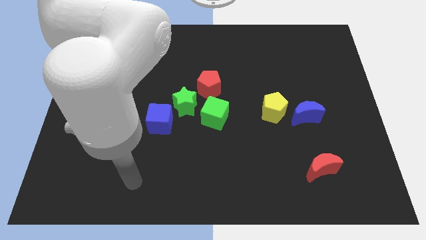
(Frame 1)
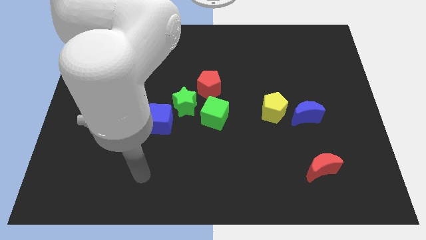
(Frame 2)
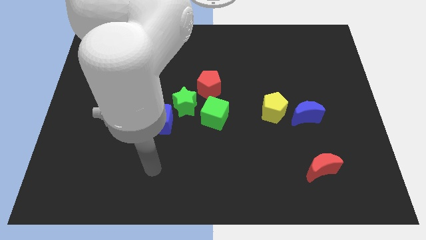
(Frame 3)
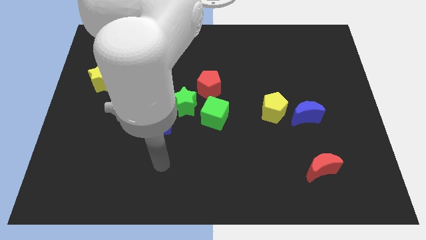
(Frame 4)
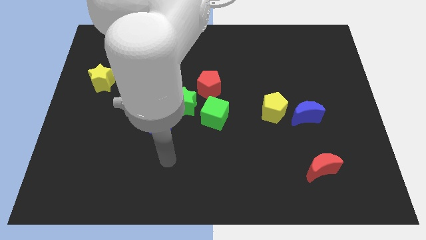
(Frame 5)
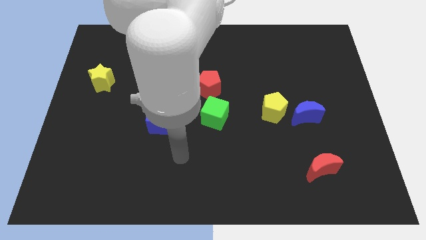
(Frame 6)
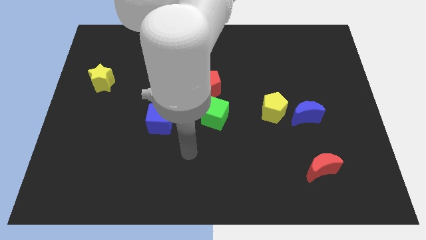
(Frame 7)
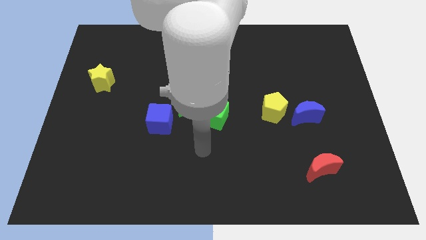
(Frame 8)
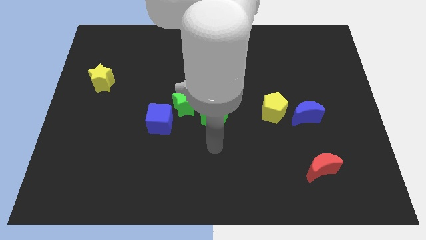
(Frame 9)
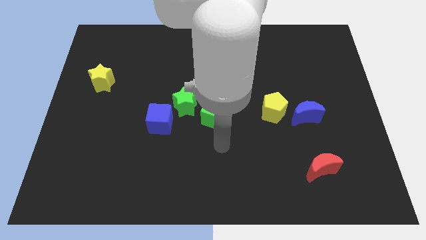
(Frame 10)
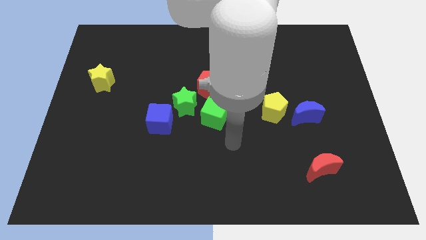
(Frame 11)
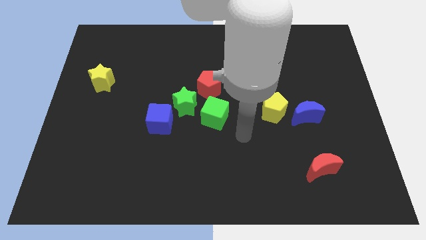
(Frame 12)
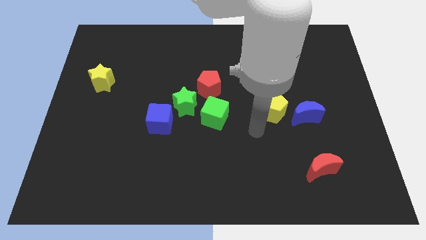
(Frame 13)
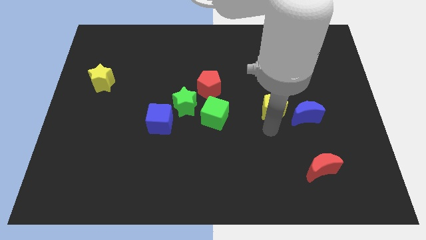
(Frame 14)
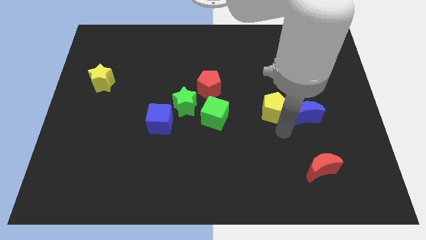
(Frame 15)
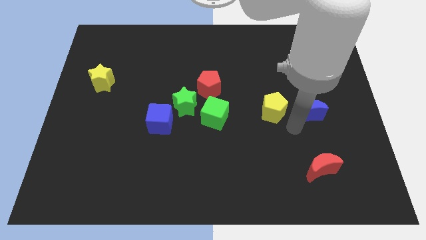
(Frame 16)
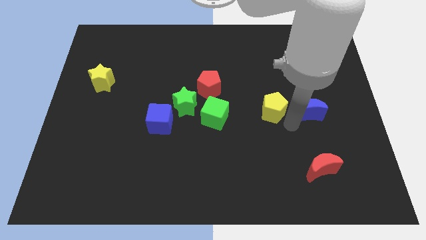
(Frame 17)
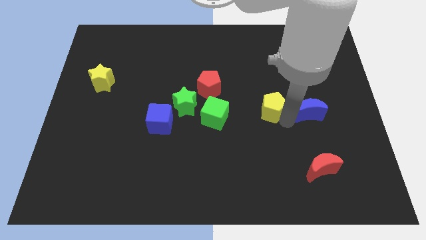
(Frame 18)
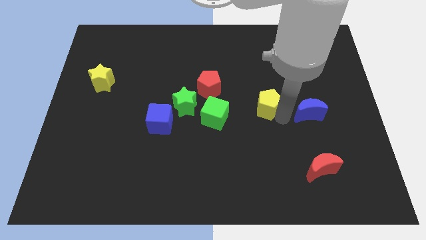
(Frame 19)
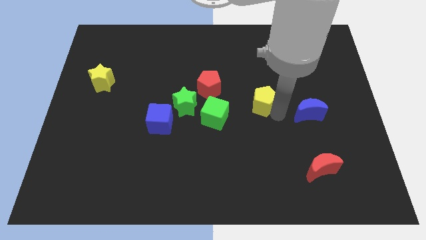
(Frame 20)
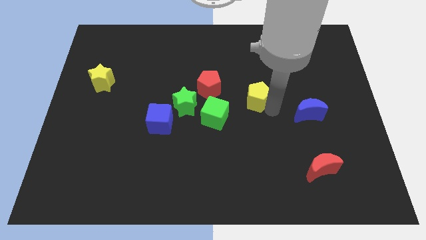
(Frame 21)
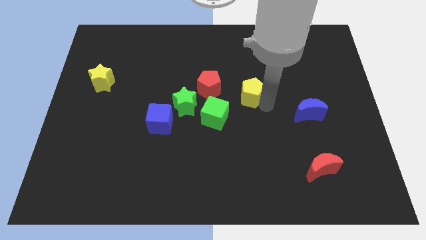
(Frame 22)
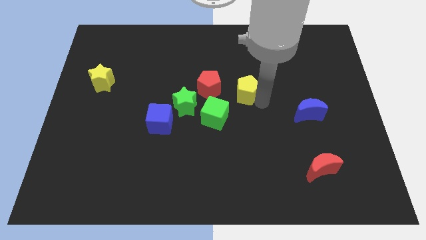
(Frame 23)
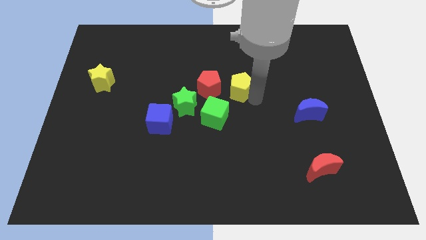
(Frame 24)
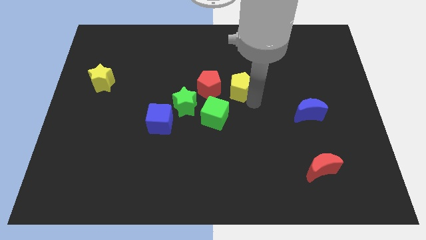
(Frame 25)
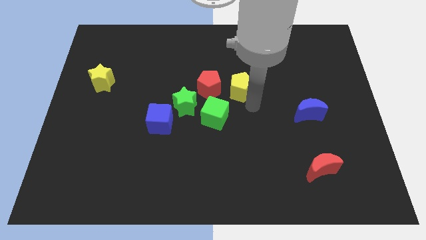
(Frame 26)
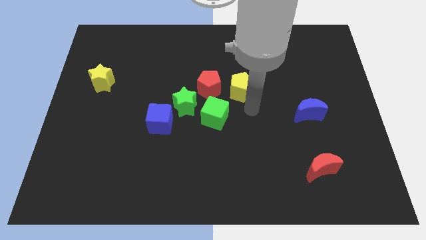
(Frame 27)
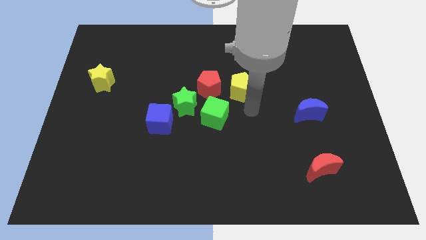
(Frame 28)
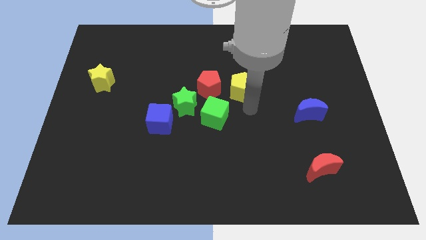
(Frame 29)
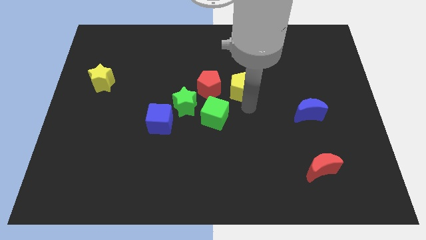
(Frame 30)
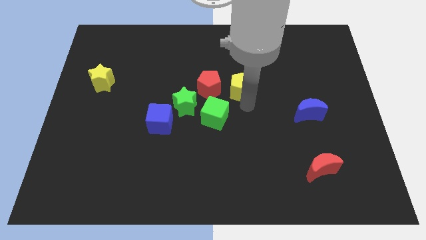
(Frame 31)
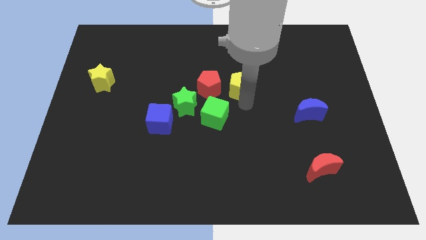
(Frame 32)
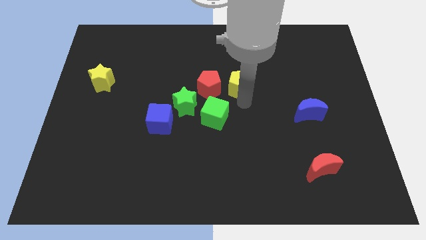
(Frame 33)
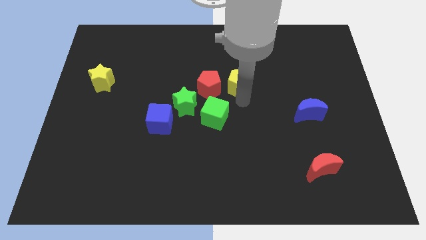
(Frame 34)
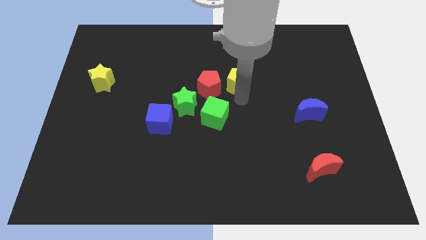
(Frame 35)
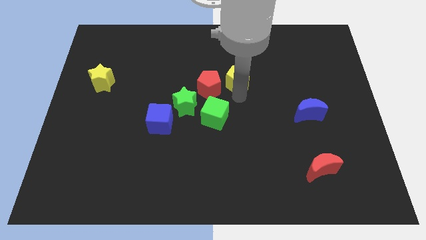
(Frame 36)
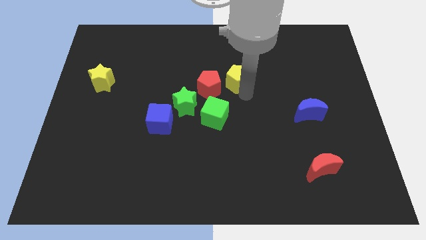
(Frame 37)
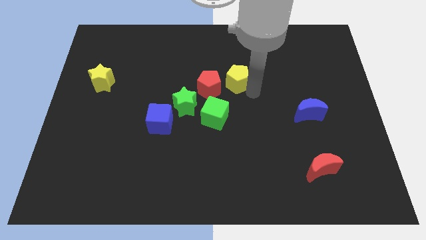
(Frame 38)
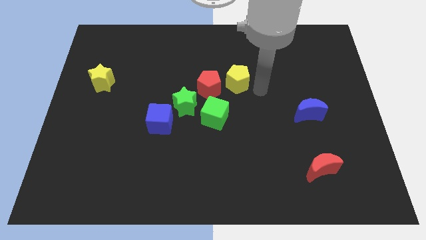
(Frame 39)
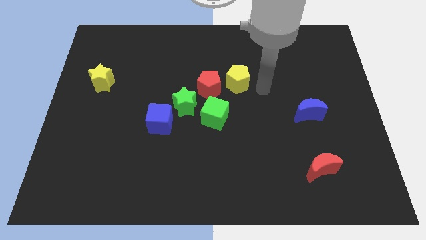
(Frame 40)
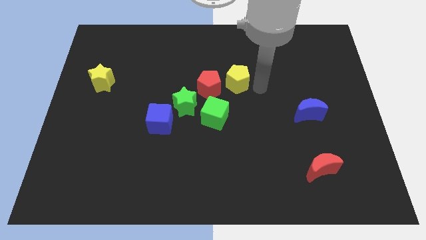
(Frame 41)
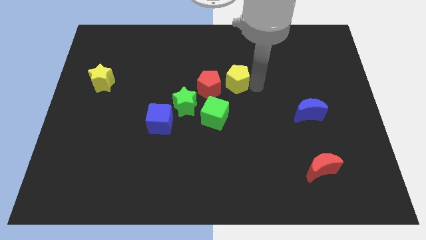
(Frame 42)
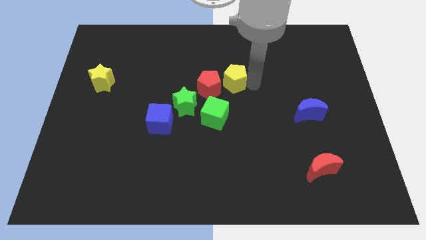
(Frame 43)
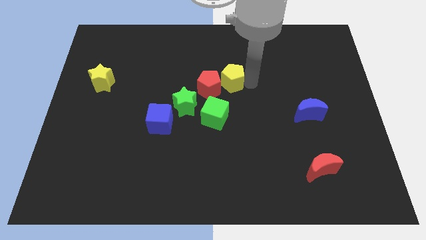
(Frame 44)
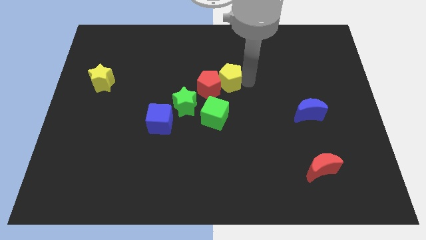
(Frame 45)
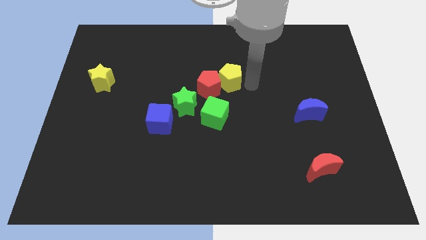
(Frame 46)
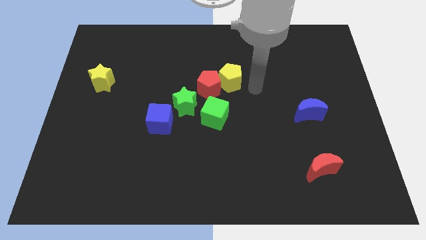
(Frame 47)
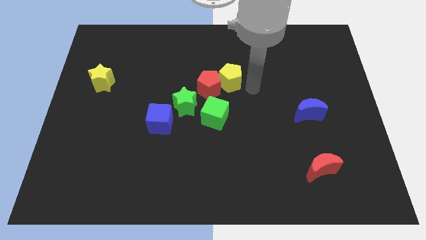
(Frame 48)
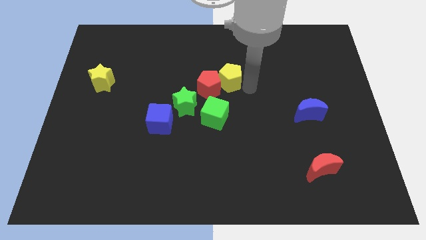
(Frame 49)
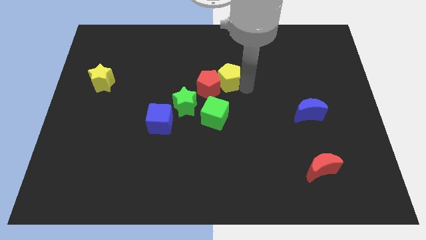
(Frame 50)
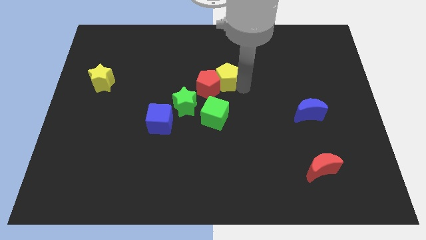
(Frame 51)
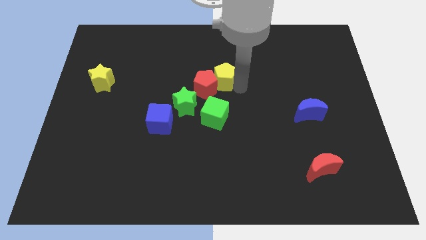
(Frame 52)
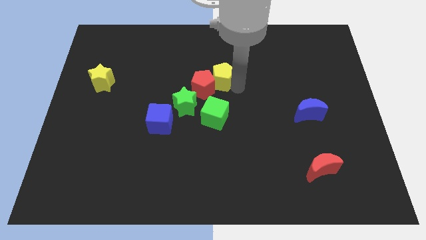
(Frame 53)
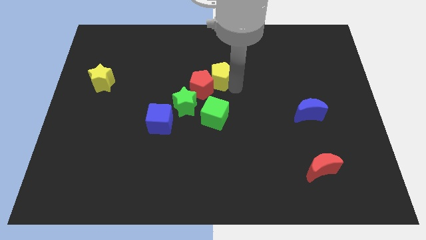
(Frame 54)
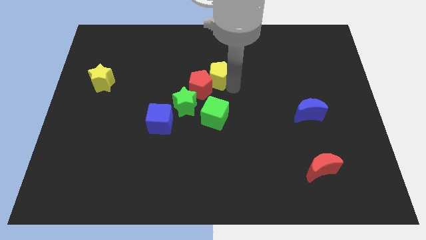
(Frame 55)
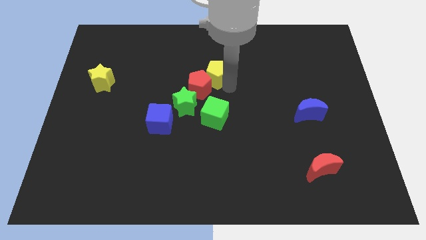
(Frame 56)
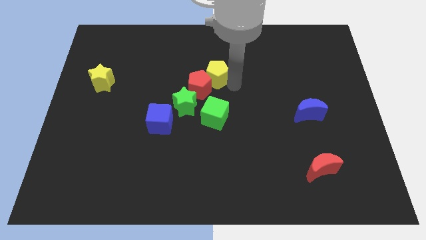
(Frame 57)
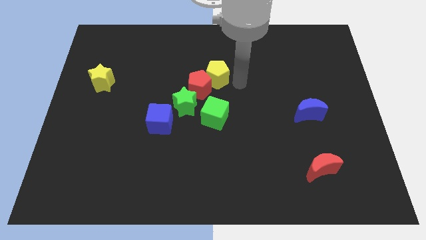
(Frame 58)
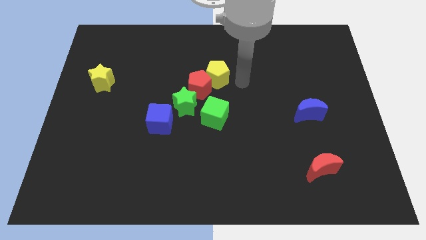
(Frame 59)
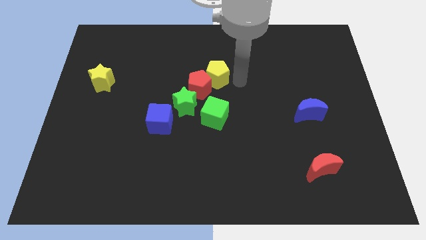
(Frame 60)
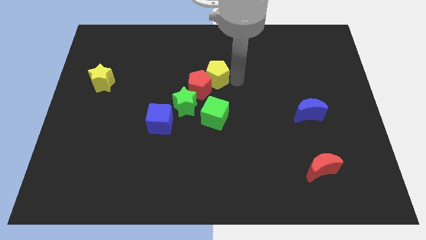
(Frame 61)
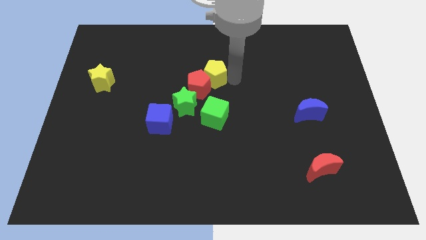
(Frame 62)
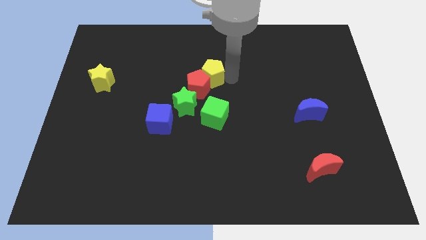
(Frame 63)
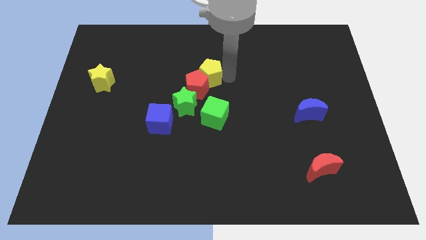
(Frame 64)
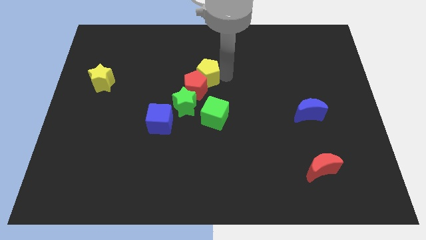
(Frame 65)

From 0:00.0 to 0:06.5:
slide the yellow pentagon to the top of the green star

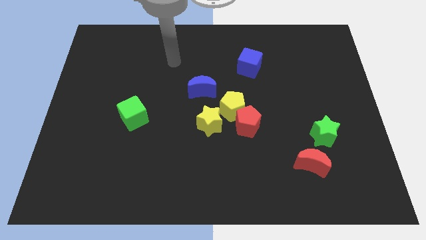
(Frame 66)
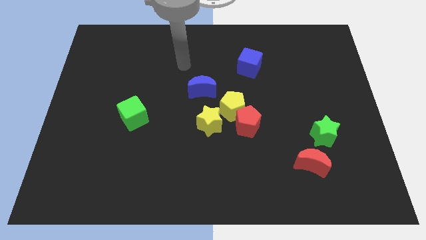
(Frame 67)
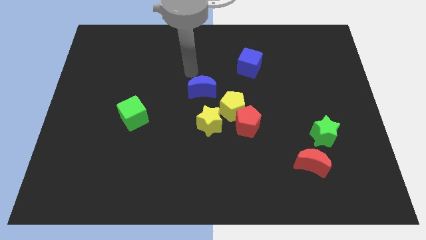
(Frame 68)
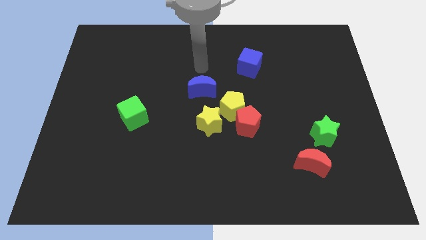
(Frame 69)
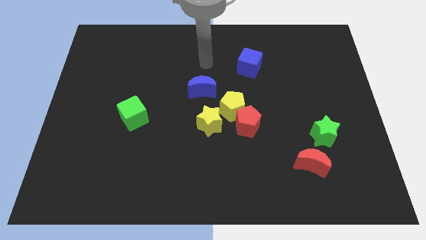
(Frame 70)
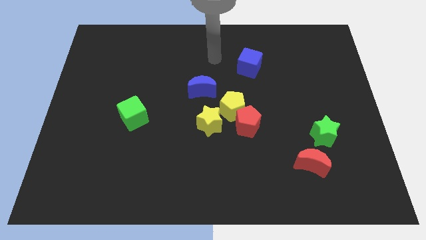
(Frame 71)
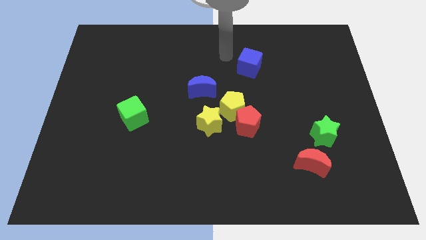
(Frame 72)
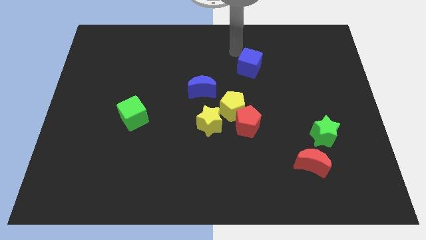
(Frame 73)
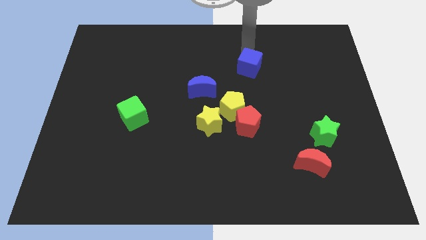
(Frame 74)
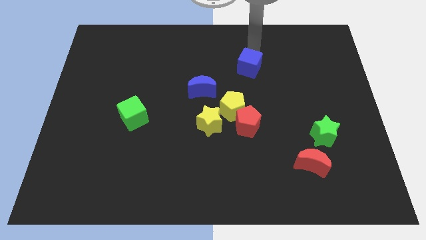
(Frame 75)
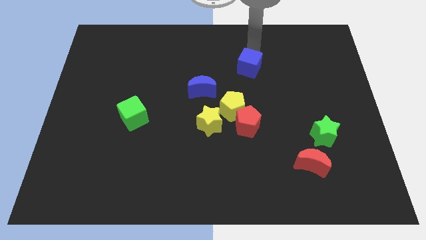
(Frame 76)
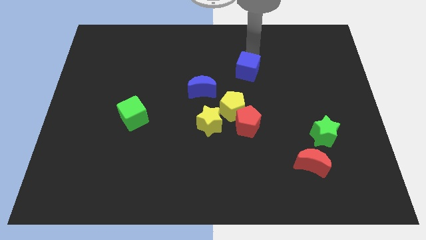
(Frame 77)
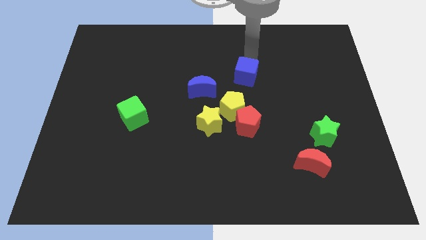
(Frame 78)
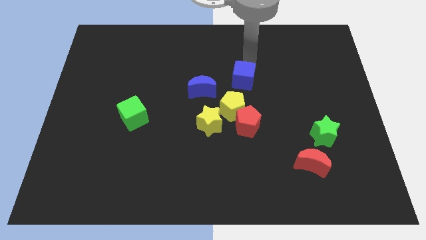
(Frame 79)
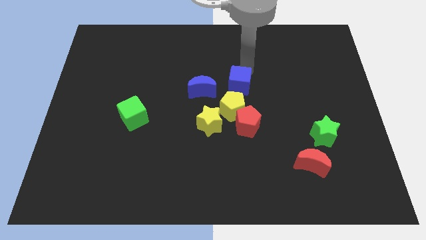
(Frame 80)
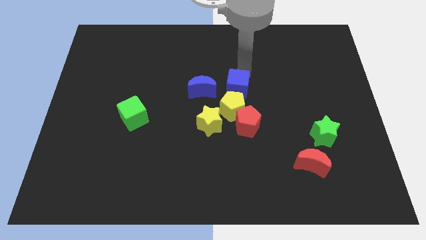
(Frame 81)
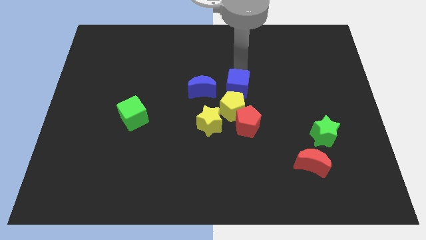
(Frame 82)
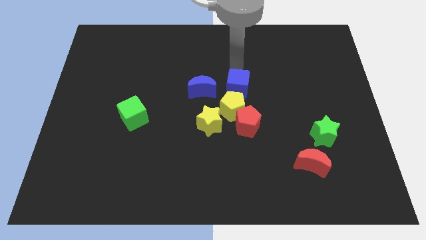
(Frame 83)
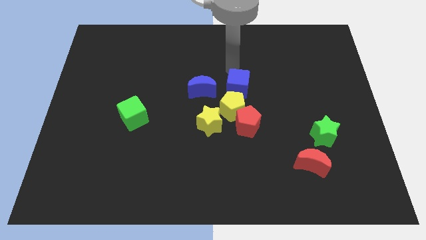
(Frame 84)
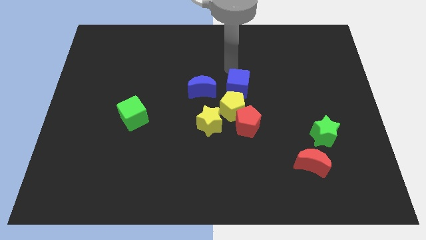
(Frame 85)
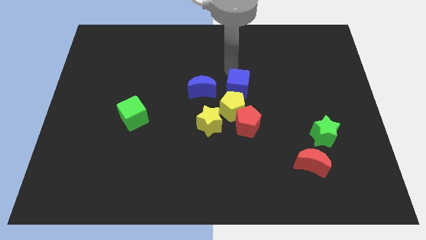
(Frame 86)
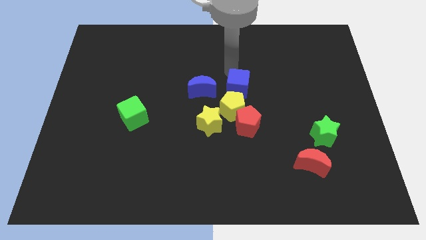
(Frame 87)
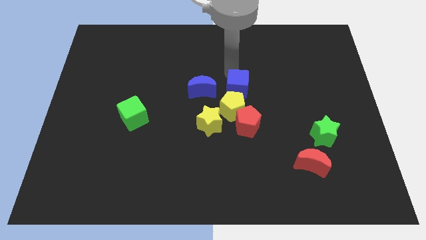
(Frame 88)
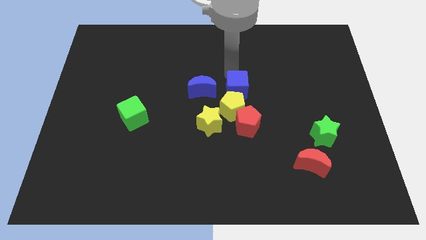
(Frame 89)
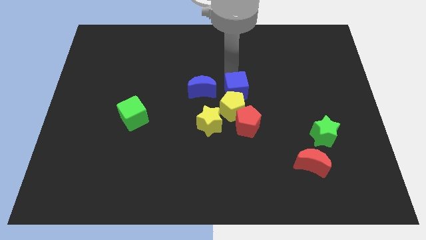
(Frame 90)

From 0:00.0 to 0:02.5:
push the blue cube to the top right side of the yellow star
